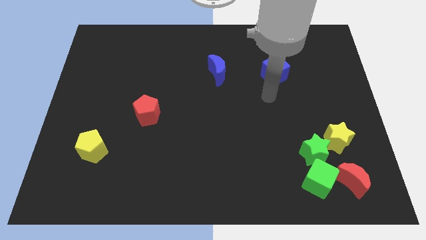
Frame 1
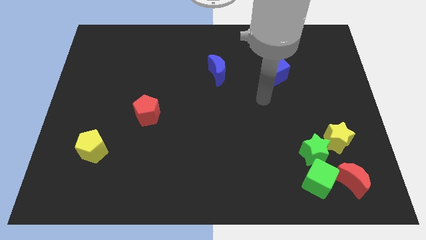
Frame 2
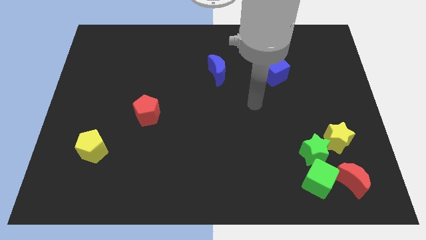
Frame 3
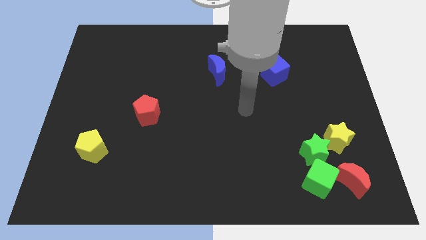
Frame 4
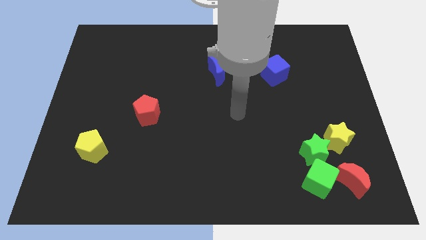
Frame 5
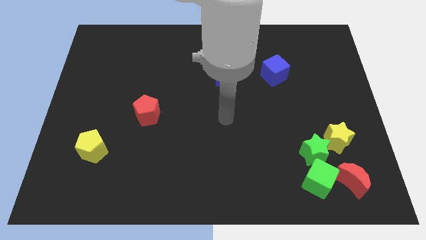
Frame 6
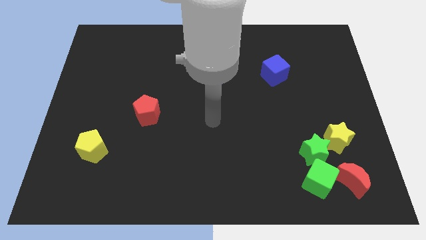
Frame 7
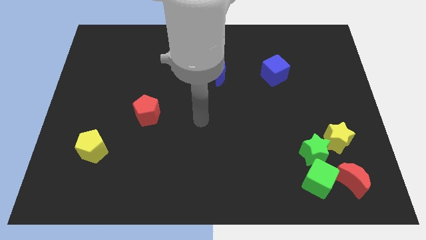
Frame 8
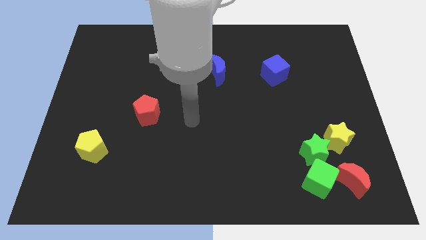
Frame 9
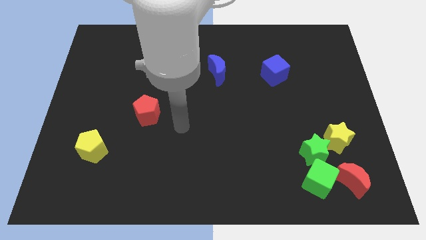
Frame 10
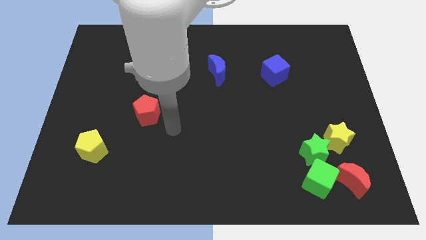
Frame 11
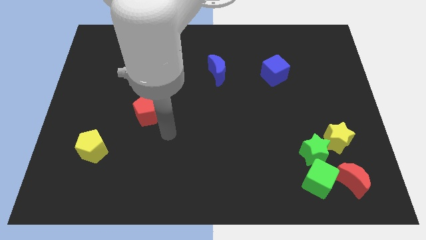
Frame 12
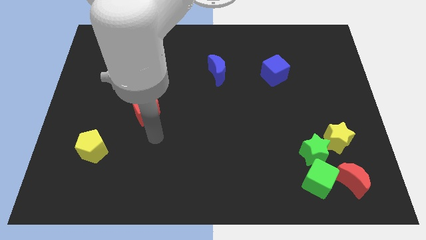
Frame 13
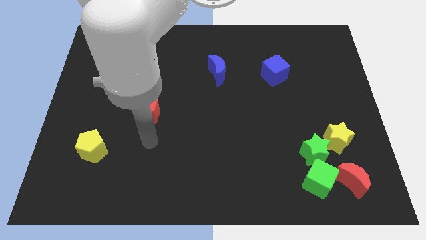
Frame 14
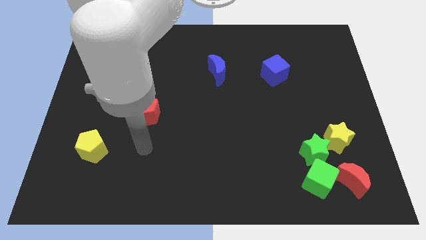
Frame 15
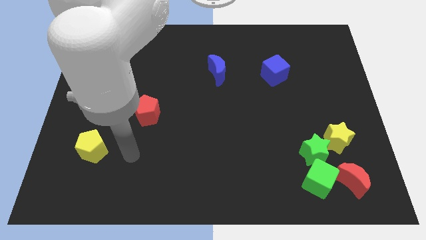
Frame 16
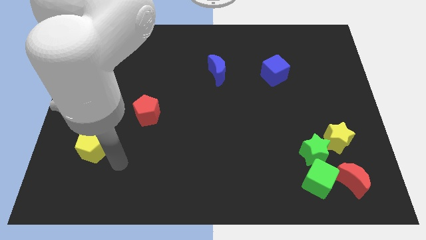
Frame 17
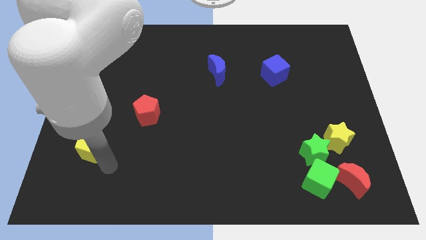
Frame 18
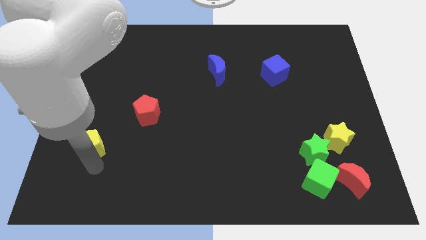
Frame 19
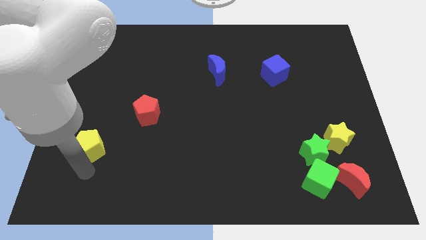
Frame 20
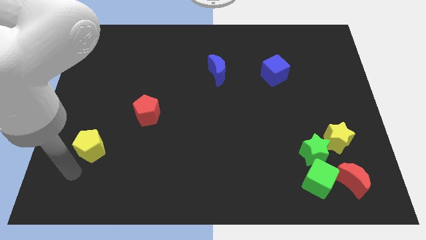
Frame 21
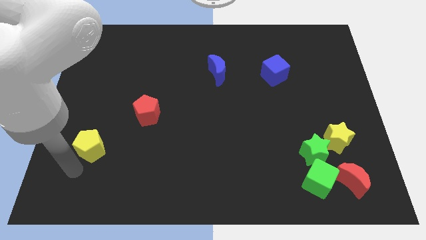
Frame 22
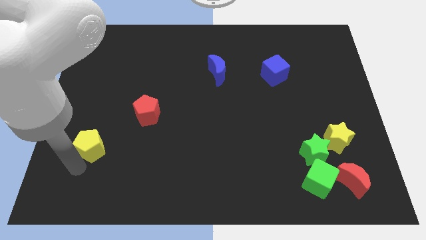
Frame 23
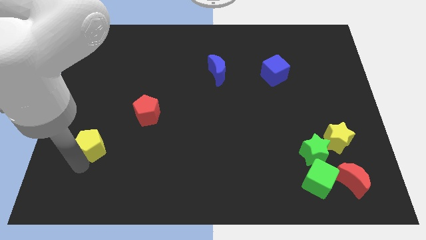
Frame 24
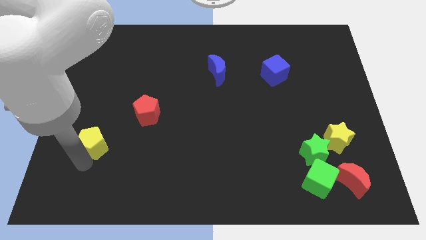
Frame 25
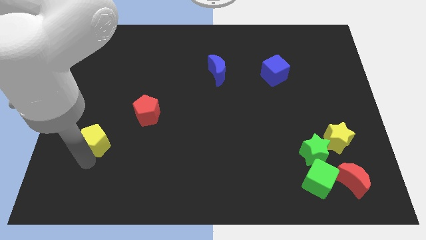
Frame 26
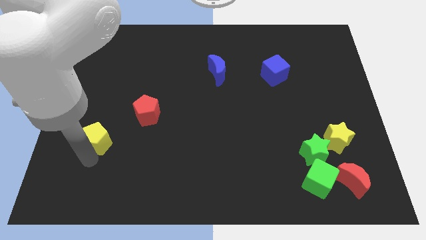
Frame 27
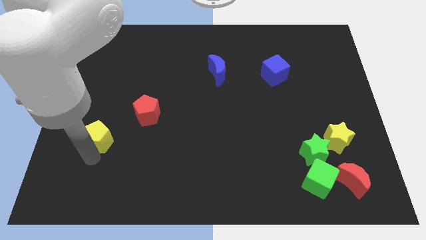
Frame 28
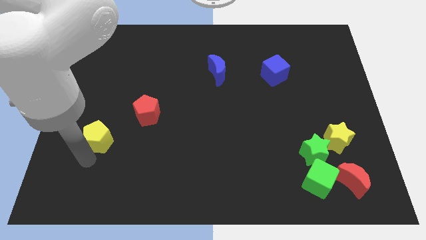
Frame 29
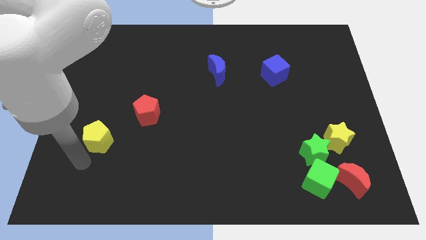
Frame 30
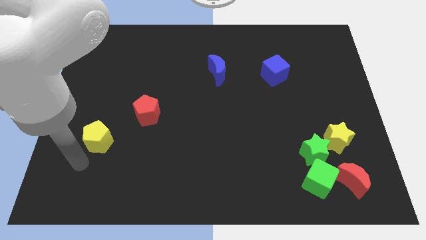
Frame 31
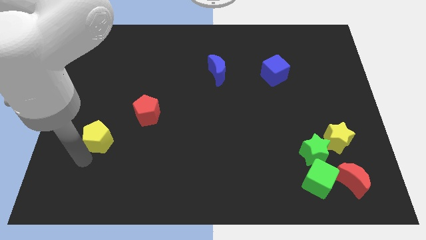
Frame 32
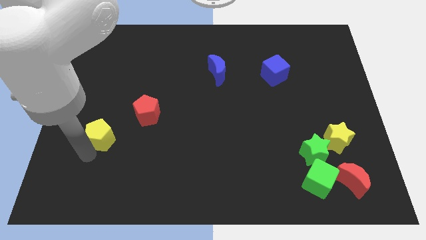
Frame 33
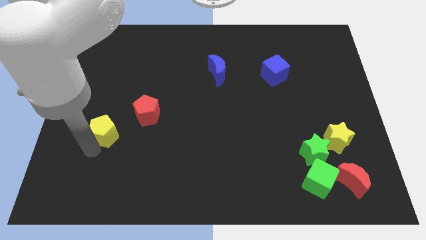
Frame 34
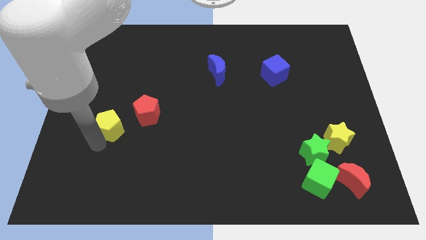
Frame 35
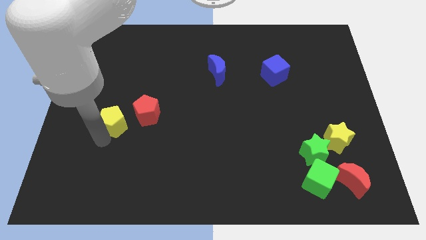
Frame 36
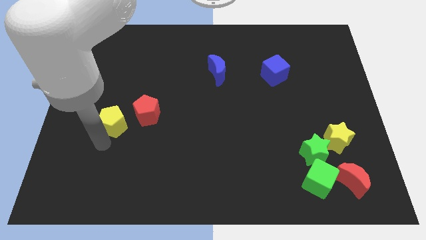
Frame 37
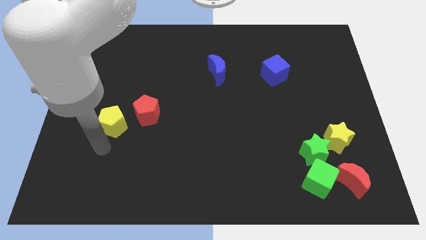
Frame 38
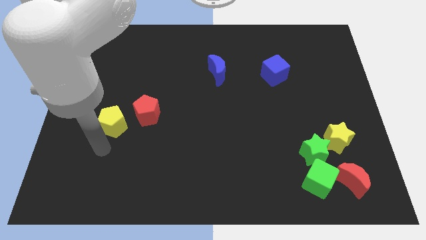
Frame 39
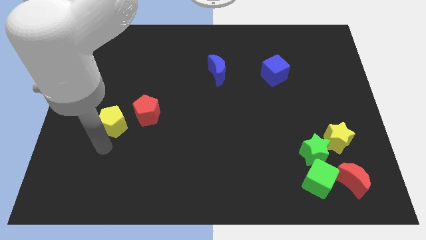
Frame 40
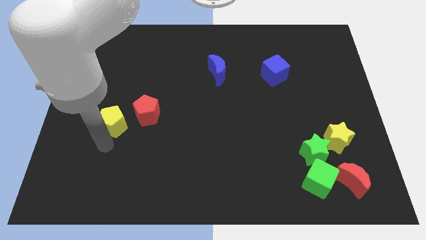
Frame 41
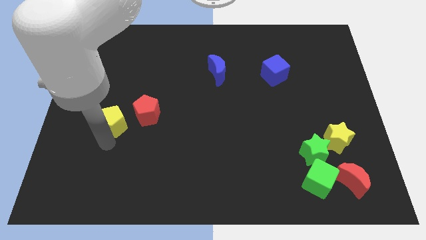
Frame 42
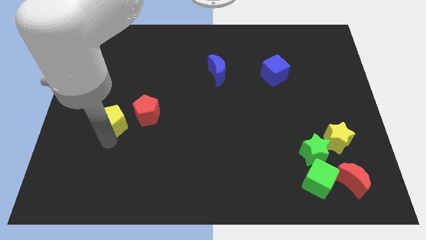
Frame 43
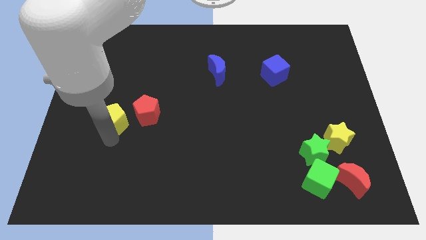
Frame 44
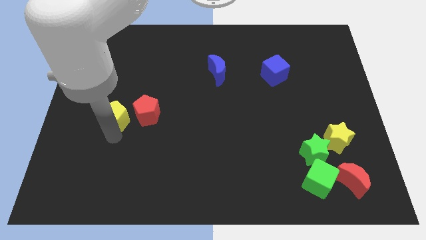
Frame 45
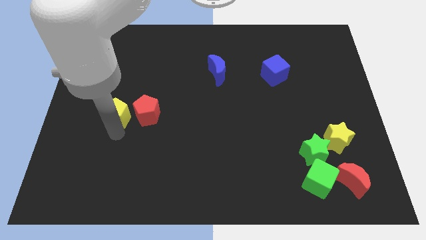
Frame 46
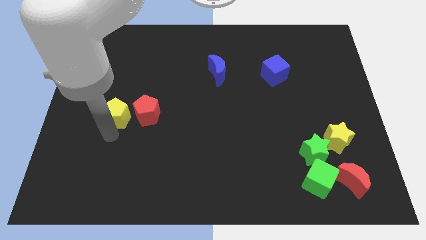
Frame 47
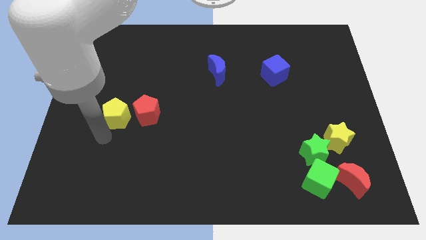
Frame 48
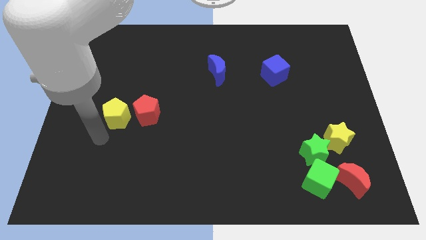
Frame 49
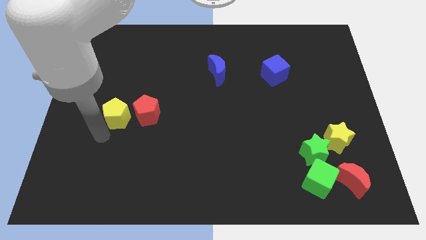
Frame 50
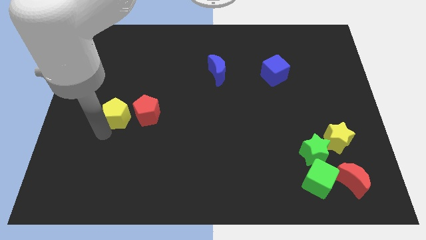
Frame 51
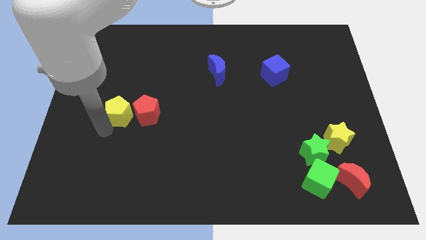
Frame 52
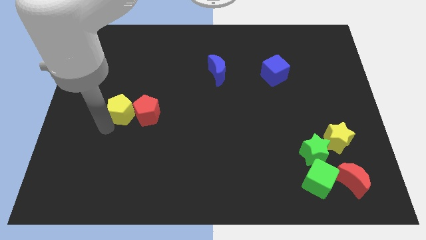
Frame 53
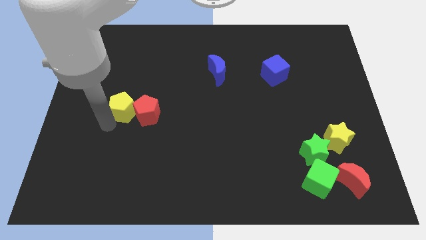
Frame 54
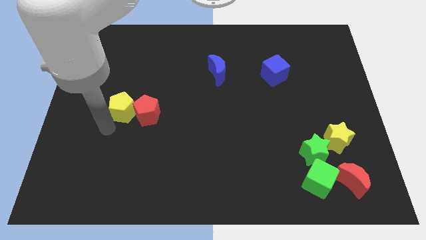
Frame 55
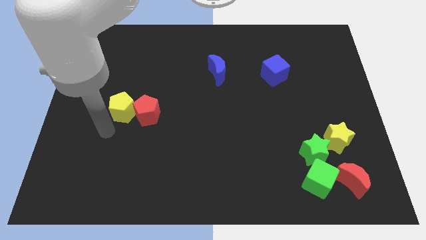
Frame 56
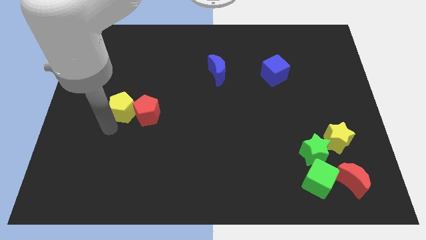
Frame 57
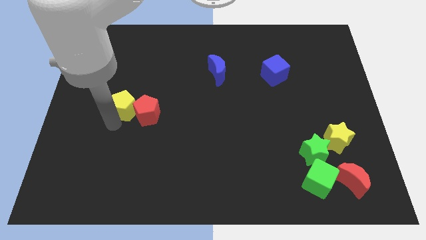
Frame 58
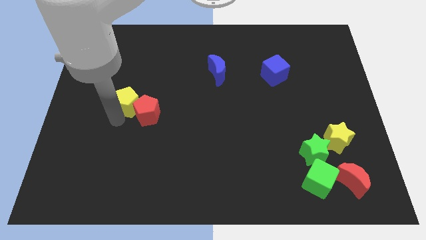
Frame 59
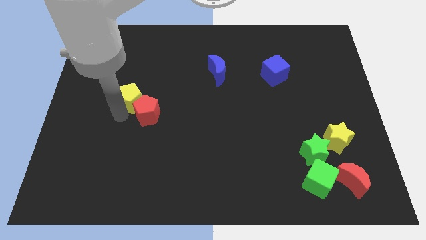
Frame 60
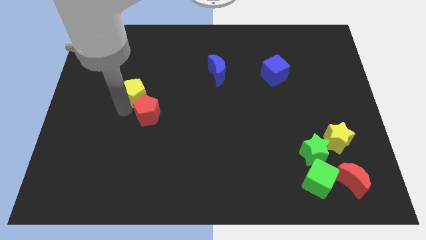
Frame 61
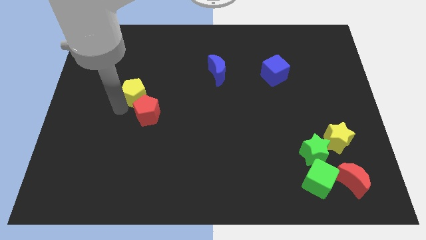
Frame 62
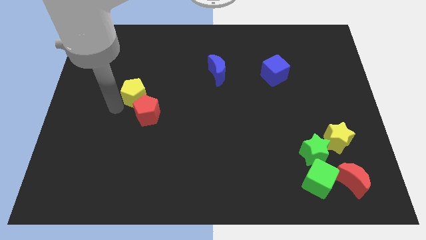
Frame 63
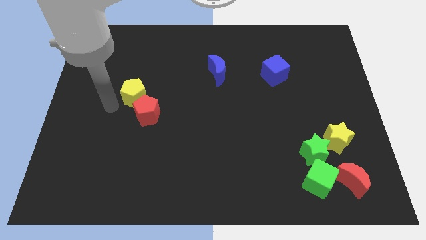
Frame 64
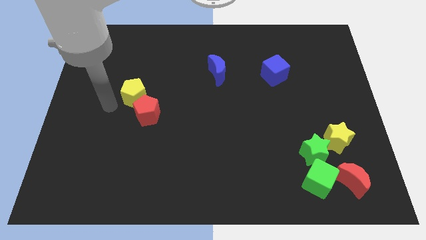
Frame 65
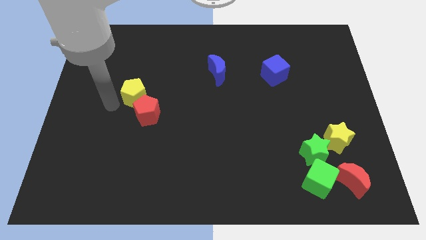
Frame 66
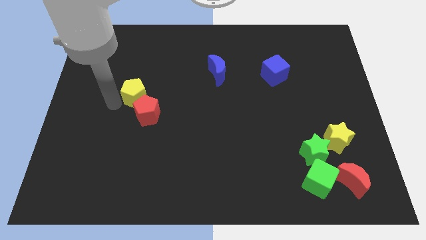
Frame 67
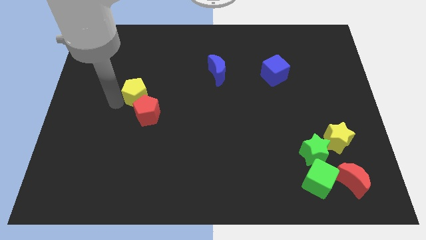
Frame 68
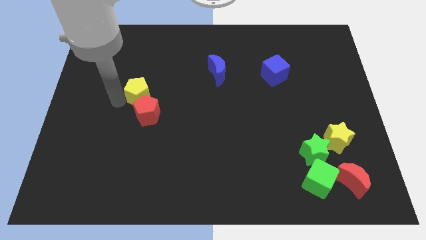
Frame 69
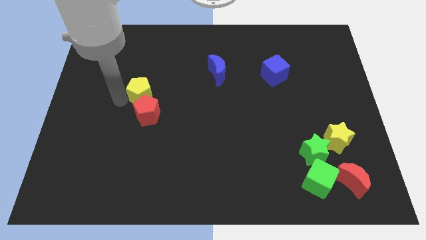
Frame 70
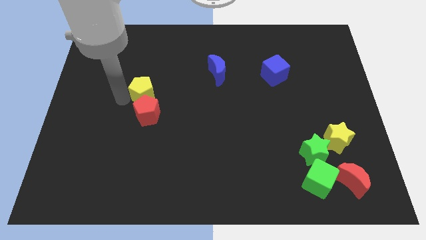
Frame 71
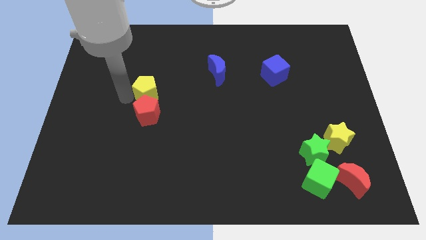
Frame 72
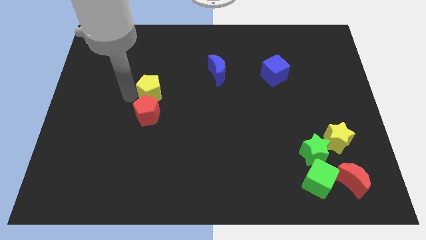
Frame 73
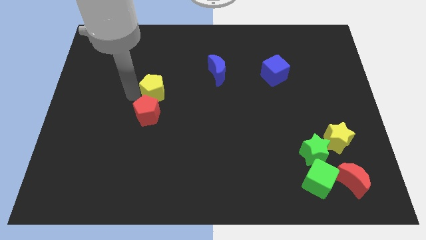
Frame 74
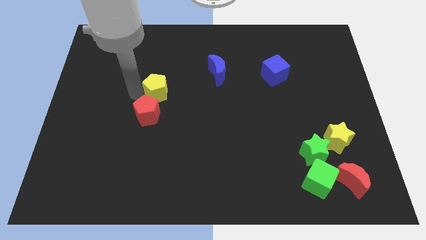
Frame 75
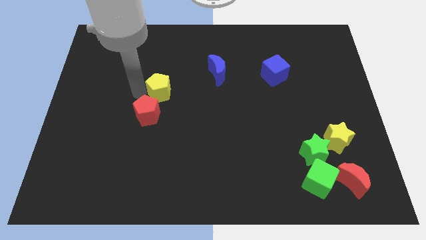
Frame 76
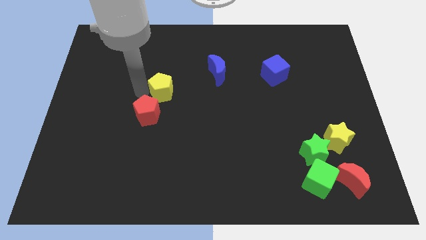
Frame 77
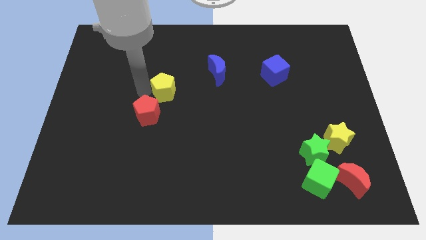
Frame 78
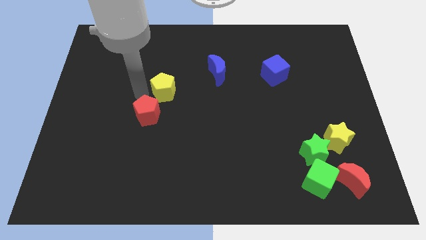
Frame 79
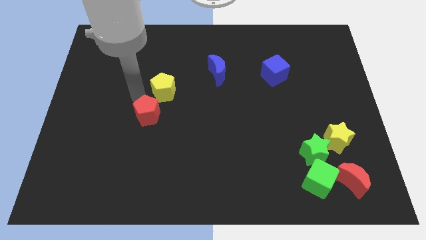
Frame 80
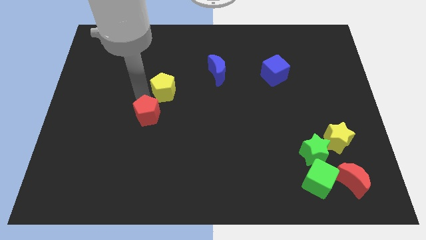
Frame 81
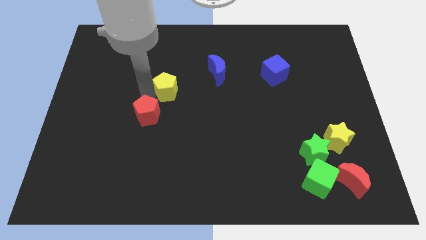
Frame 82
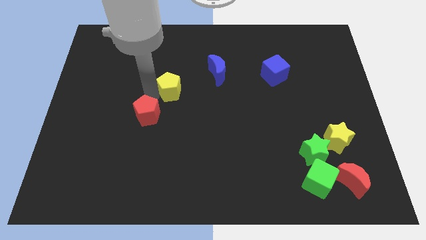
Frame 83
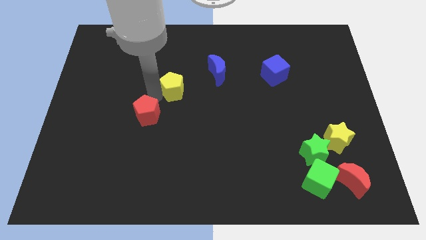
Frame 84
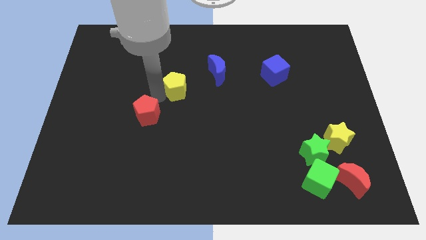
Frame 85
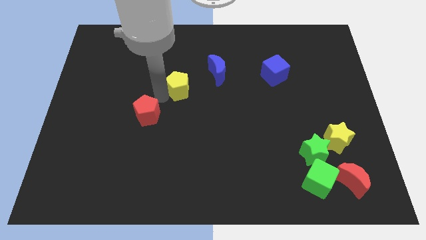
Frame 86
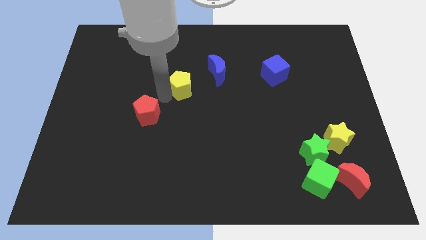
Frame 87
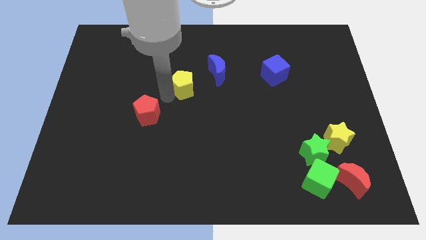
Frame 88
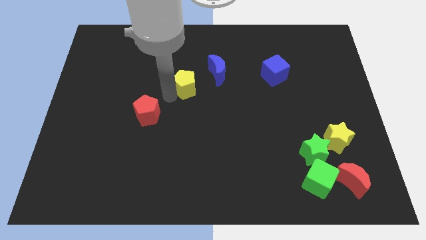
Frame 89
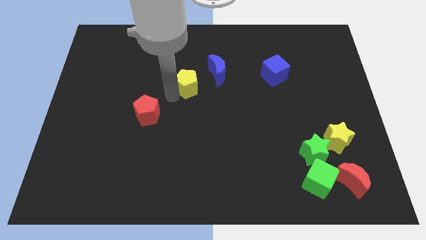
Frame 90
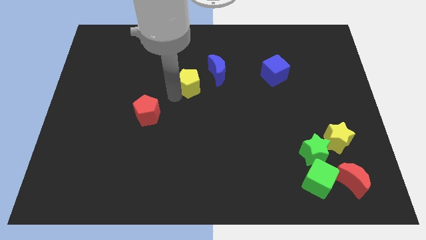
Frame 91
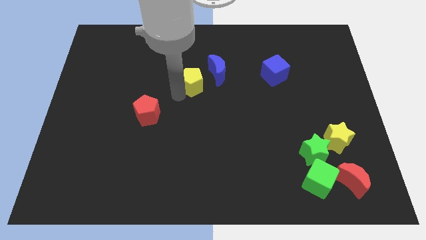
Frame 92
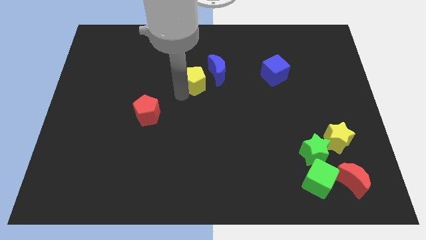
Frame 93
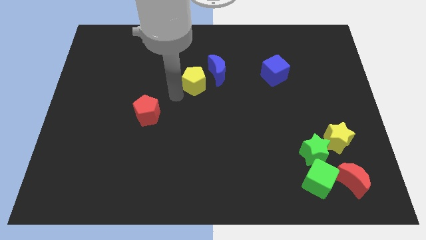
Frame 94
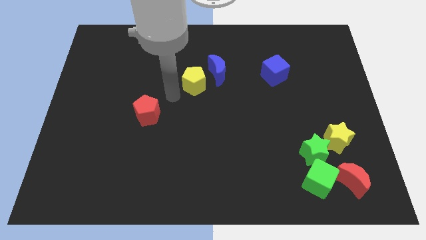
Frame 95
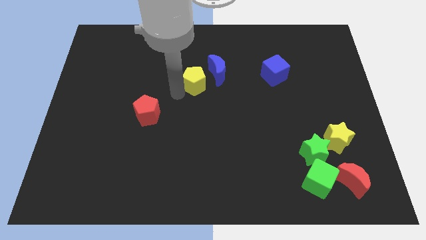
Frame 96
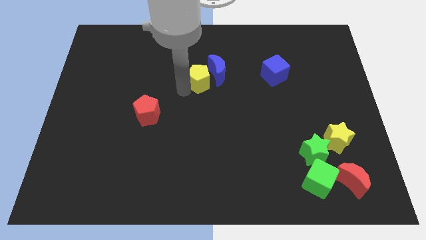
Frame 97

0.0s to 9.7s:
move the yellow pentagon towards the blue moon
